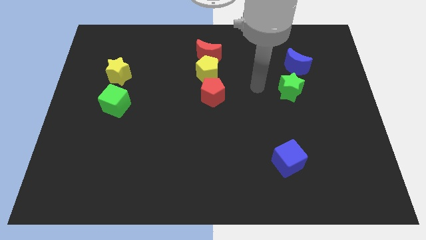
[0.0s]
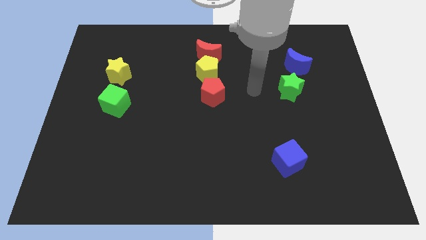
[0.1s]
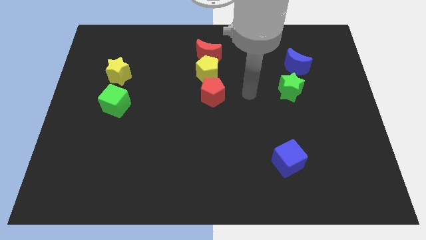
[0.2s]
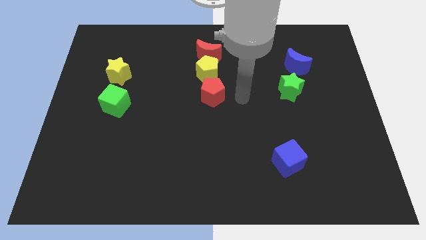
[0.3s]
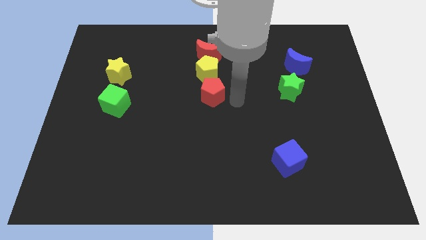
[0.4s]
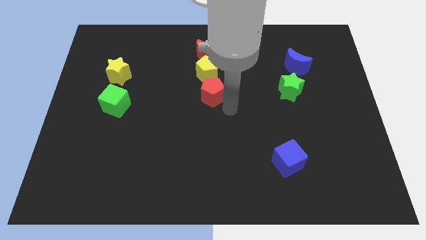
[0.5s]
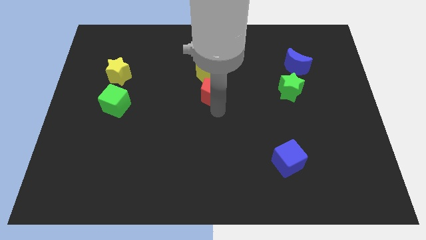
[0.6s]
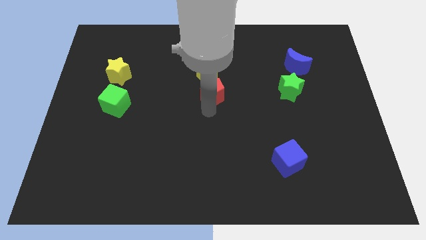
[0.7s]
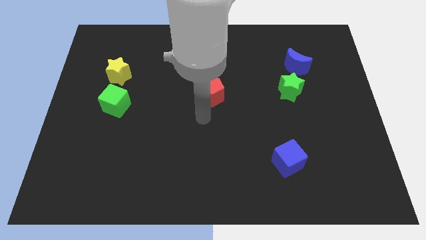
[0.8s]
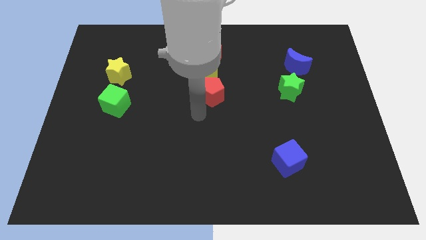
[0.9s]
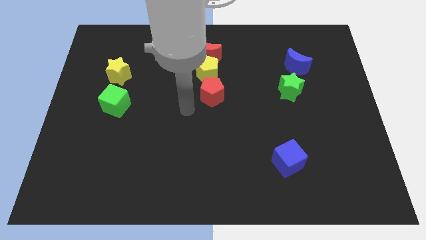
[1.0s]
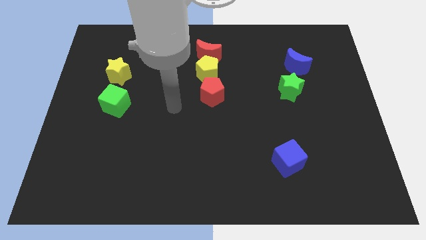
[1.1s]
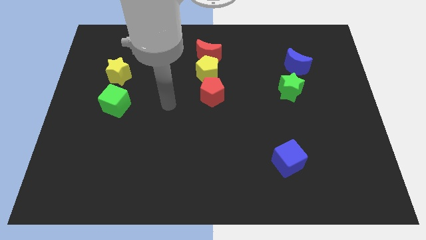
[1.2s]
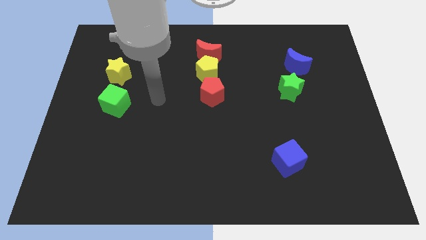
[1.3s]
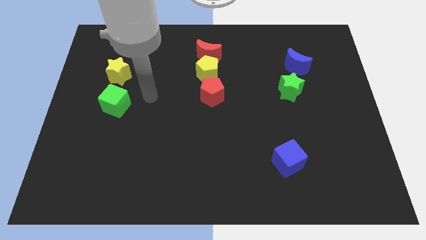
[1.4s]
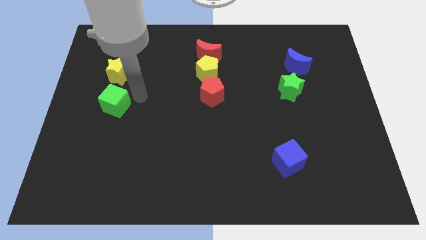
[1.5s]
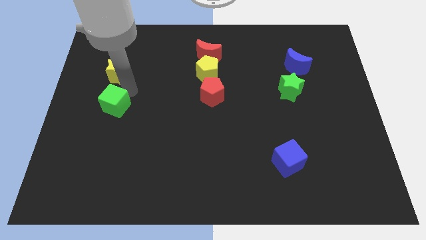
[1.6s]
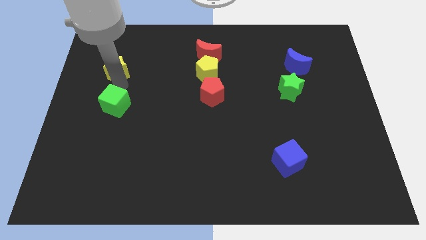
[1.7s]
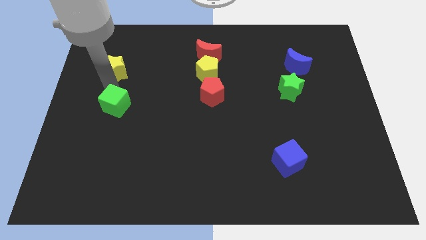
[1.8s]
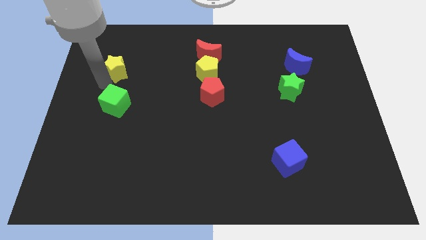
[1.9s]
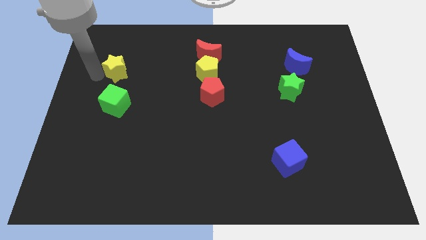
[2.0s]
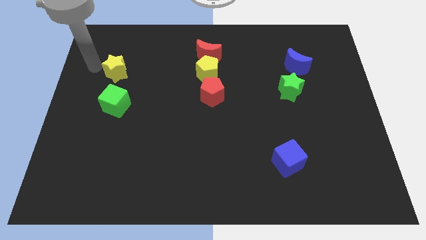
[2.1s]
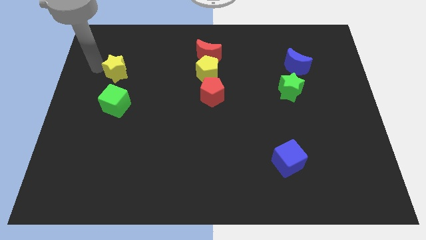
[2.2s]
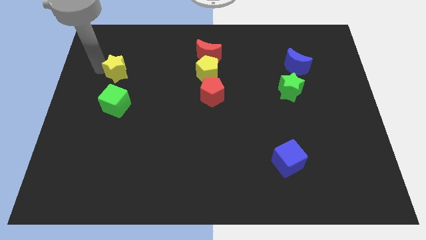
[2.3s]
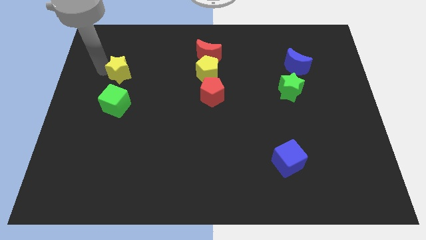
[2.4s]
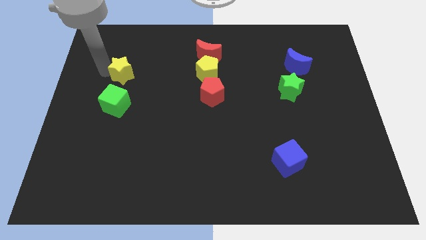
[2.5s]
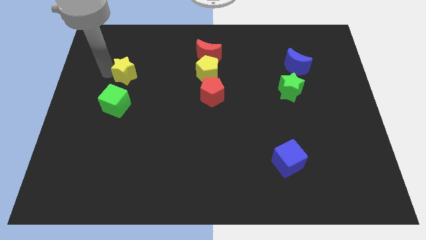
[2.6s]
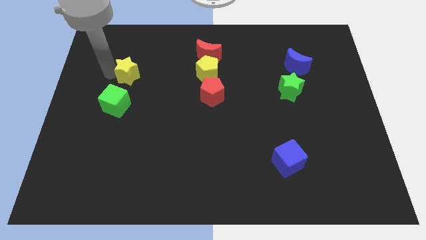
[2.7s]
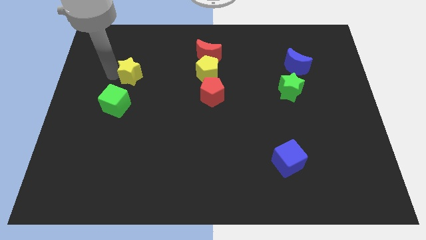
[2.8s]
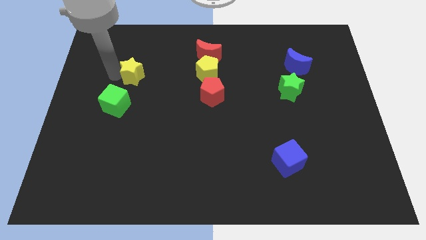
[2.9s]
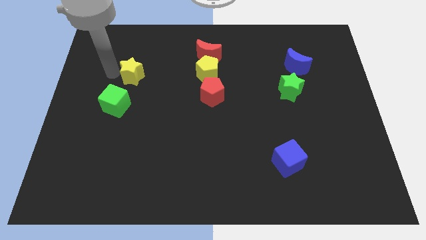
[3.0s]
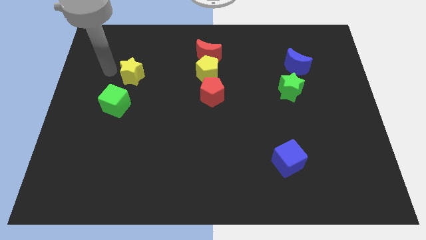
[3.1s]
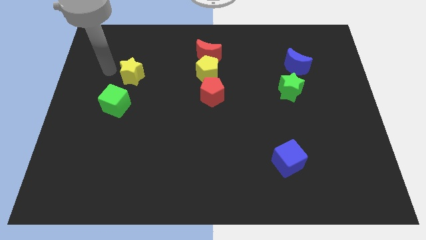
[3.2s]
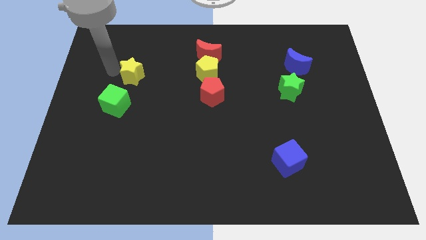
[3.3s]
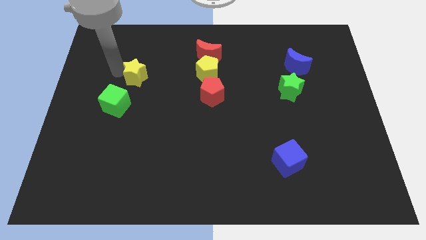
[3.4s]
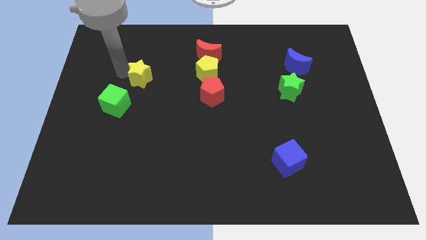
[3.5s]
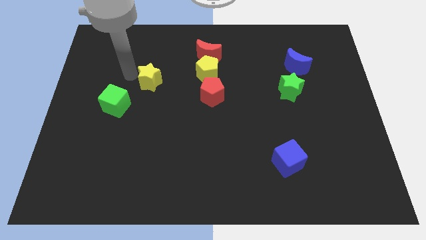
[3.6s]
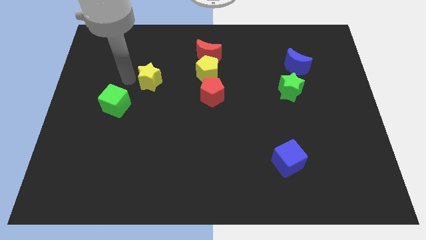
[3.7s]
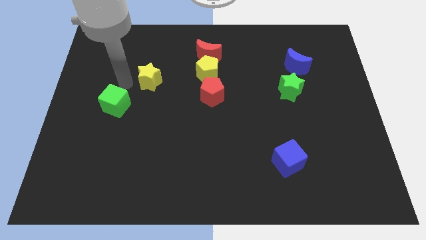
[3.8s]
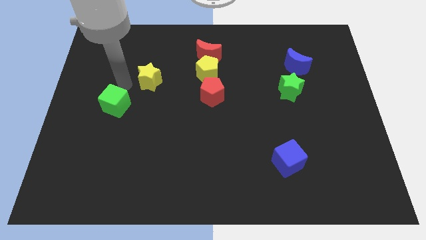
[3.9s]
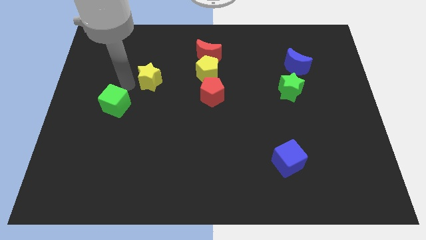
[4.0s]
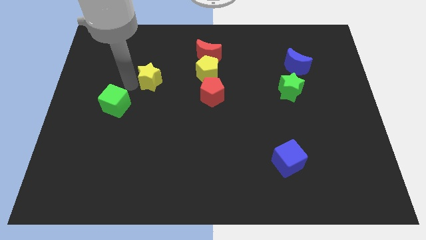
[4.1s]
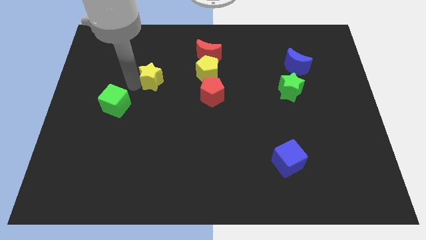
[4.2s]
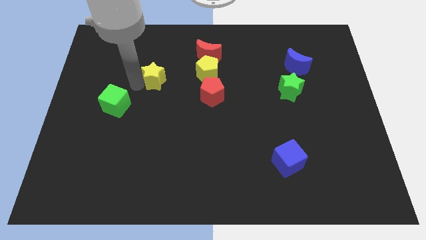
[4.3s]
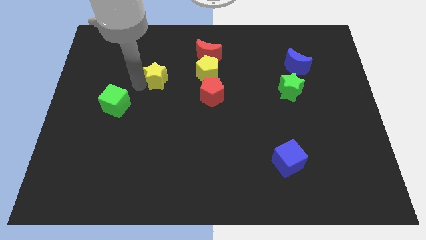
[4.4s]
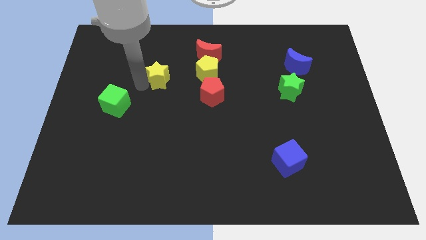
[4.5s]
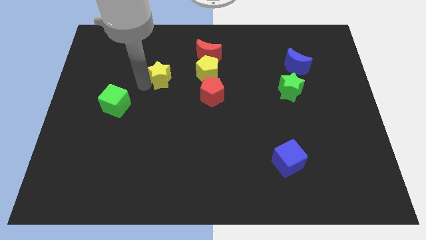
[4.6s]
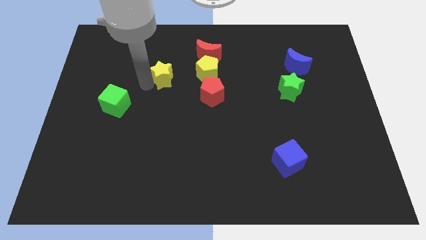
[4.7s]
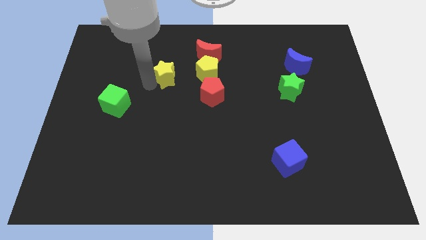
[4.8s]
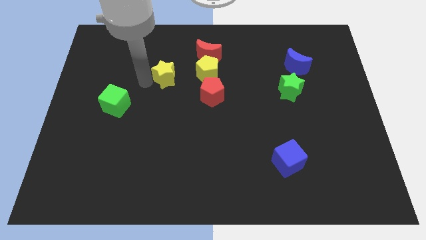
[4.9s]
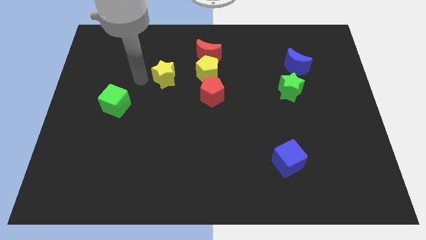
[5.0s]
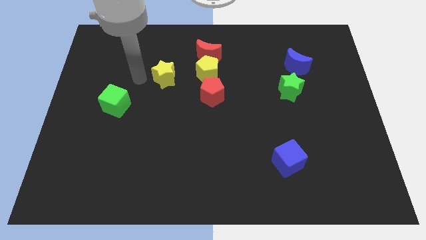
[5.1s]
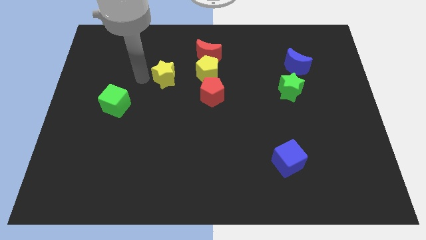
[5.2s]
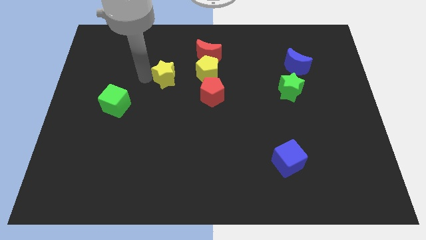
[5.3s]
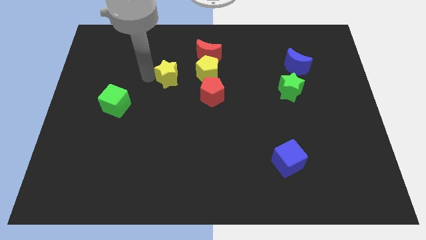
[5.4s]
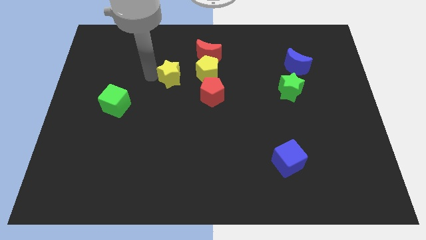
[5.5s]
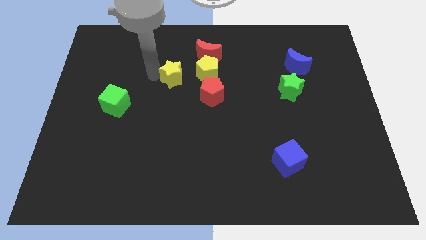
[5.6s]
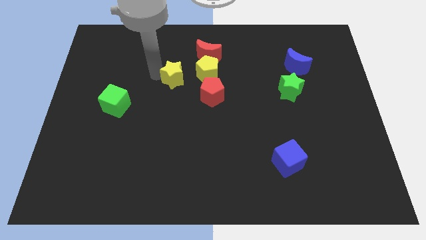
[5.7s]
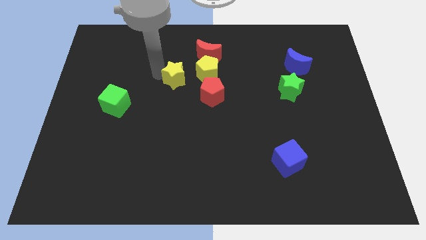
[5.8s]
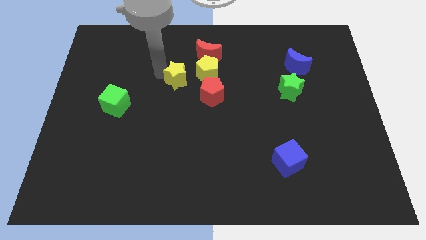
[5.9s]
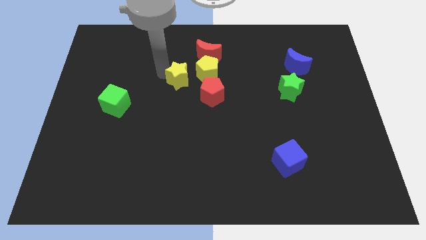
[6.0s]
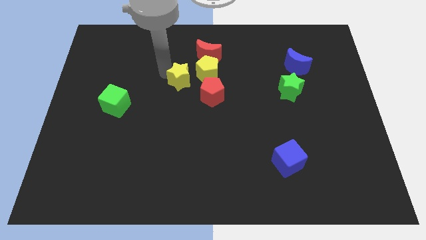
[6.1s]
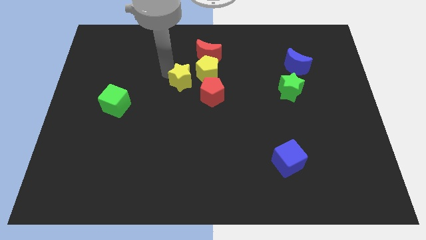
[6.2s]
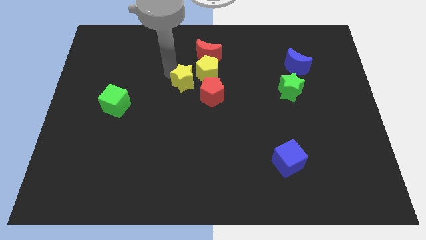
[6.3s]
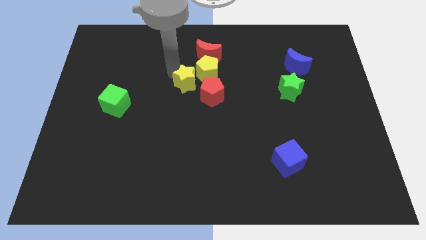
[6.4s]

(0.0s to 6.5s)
push the yellow star to the yellow pentagon
